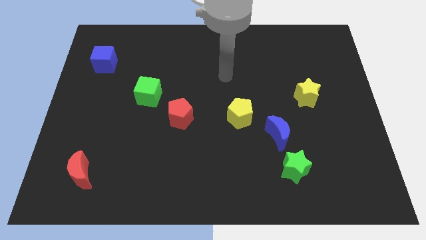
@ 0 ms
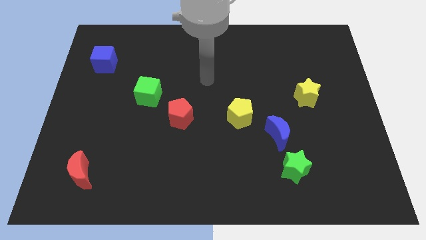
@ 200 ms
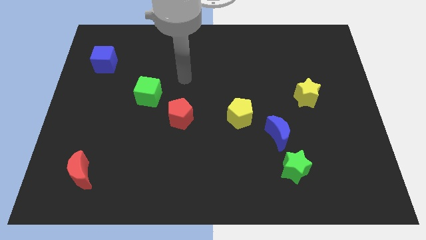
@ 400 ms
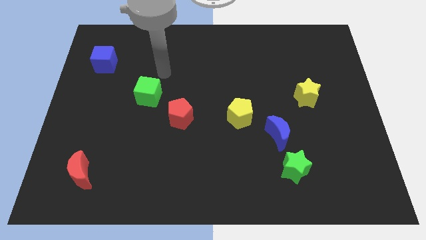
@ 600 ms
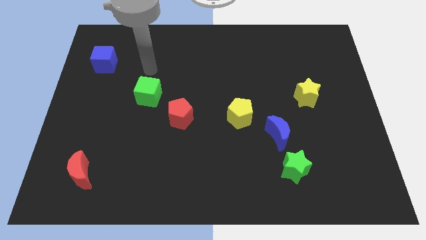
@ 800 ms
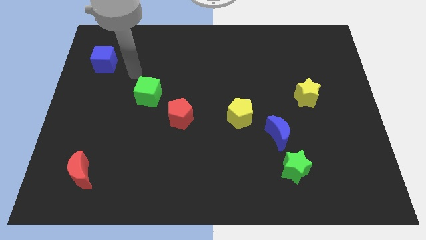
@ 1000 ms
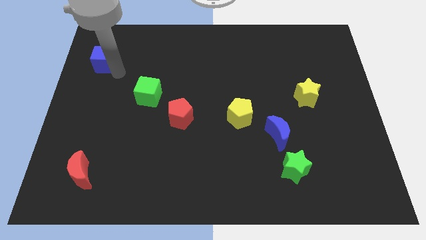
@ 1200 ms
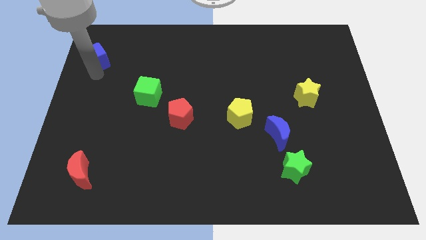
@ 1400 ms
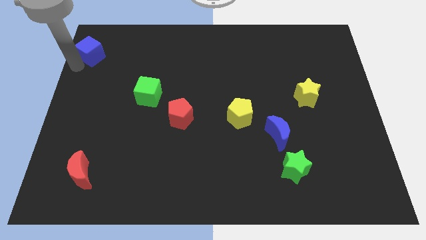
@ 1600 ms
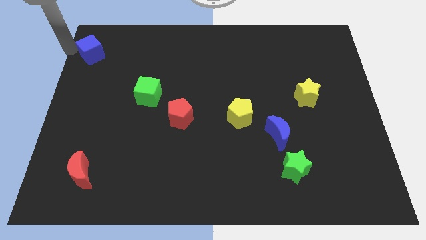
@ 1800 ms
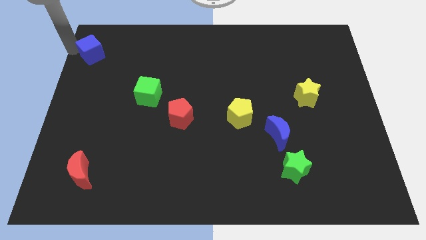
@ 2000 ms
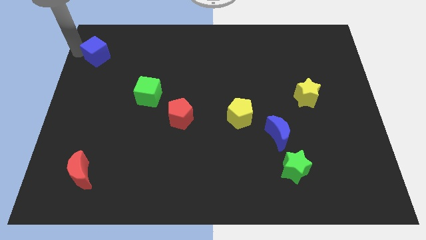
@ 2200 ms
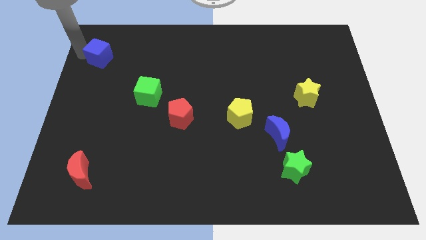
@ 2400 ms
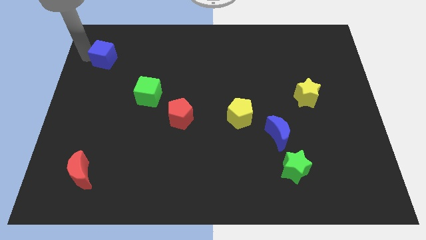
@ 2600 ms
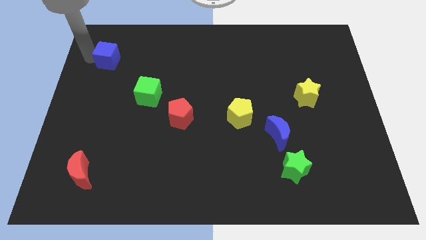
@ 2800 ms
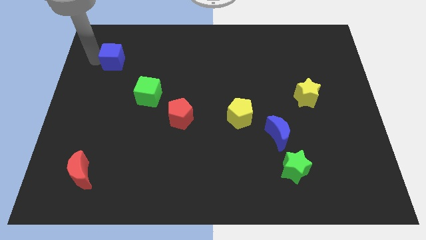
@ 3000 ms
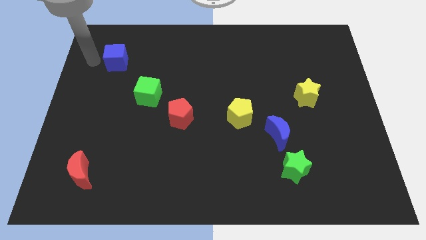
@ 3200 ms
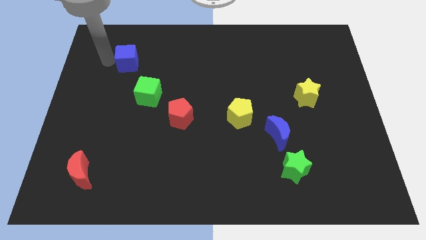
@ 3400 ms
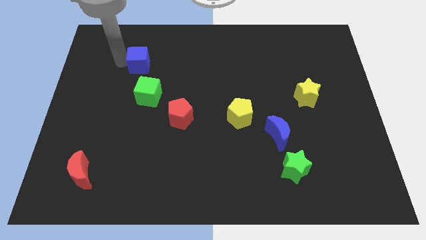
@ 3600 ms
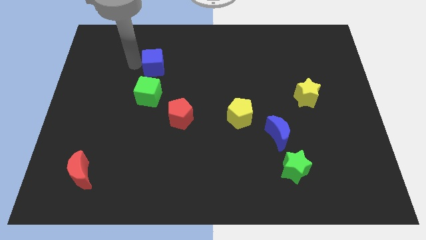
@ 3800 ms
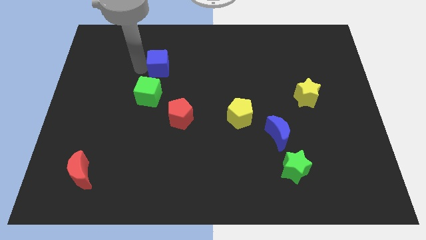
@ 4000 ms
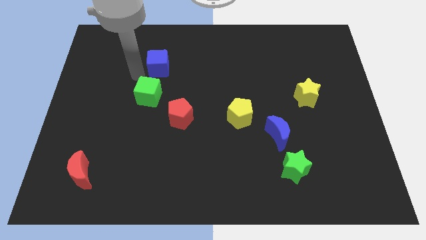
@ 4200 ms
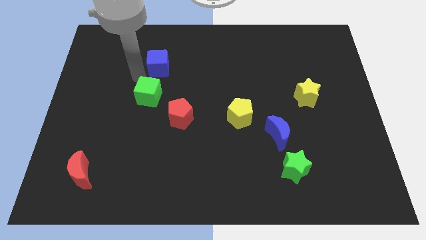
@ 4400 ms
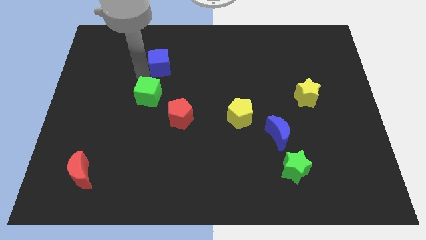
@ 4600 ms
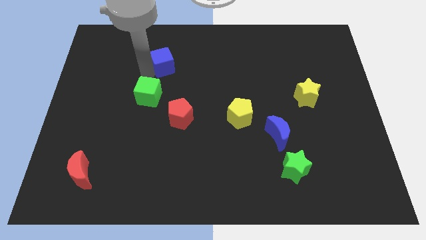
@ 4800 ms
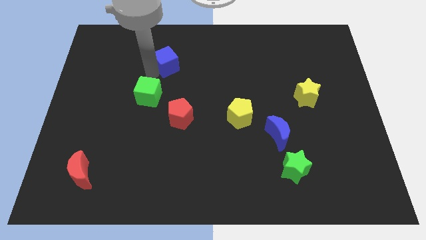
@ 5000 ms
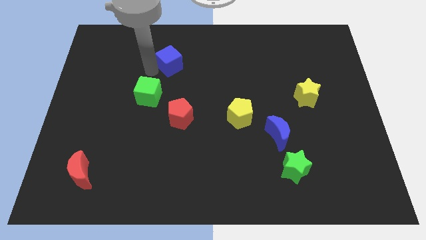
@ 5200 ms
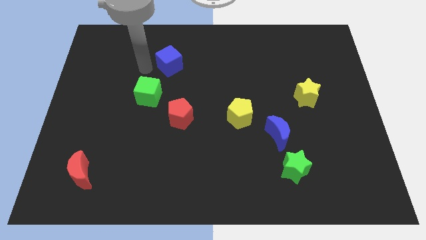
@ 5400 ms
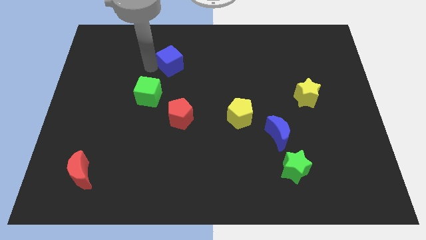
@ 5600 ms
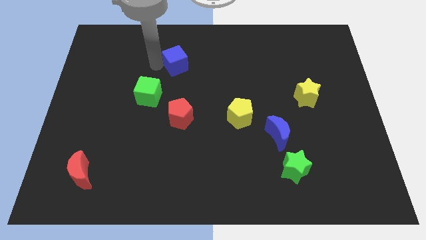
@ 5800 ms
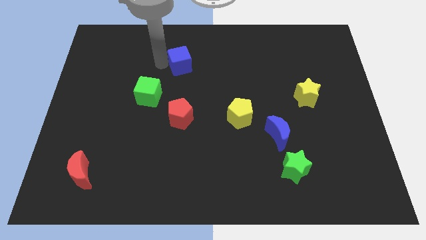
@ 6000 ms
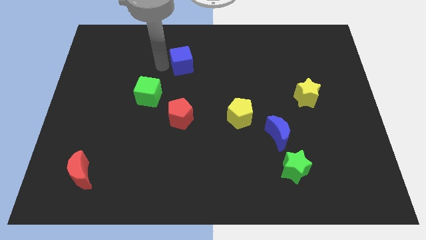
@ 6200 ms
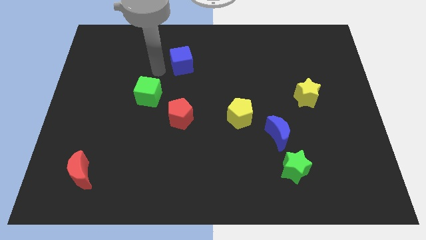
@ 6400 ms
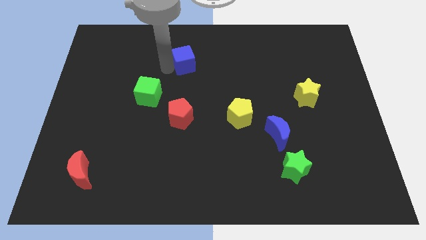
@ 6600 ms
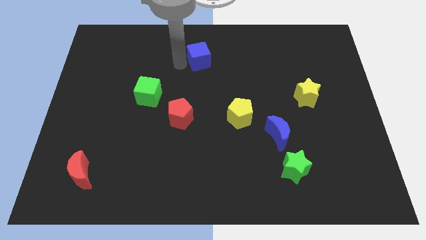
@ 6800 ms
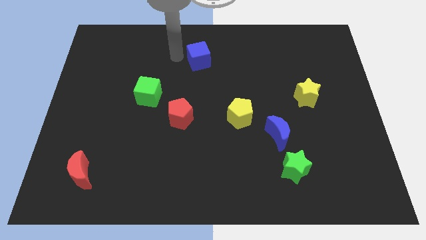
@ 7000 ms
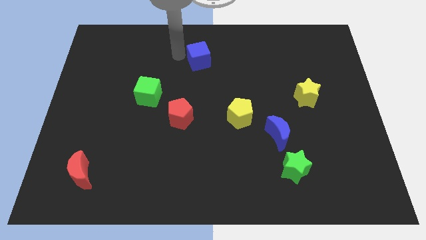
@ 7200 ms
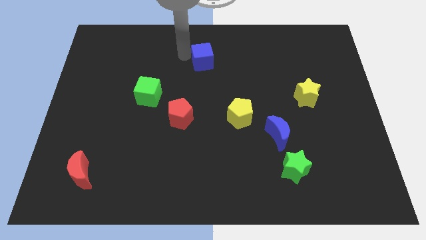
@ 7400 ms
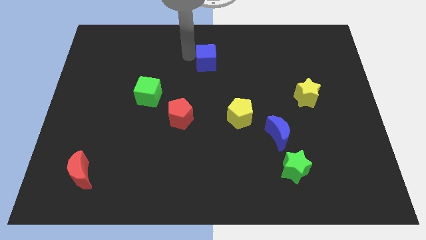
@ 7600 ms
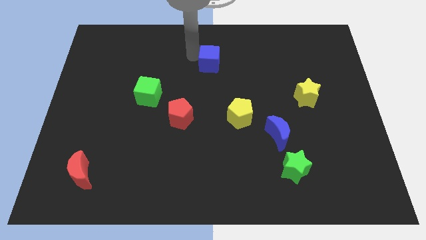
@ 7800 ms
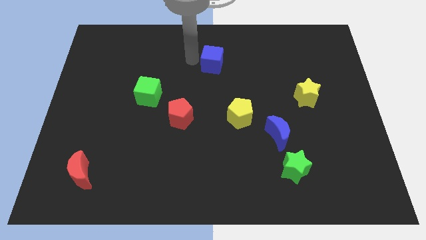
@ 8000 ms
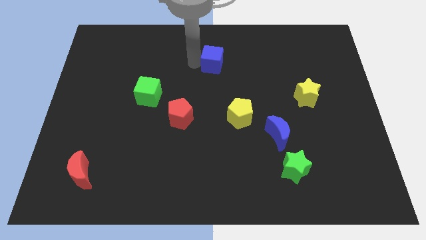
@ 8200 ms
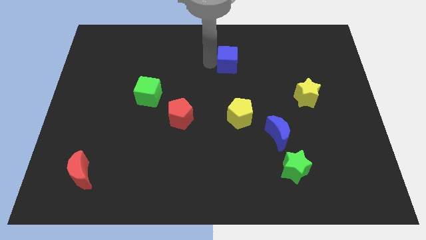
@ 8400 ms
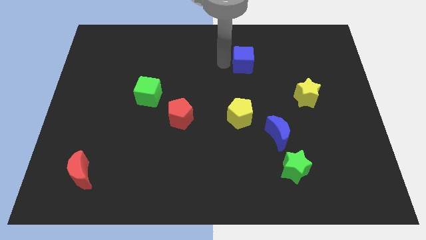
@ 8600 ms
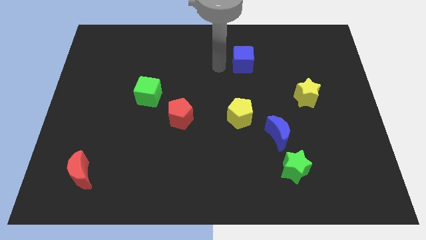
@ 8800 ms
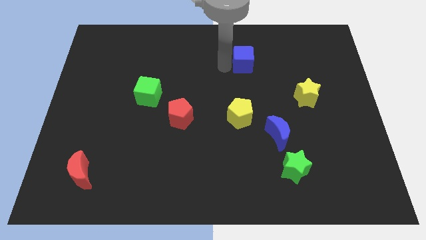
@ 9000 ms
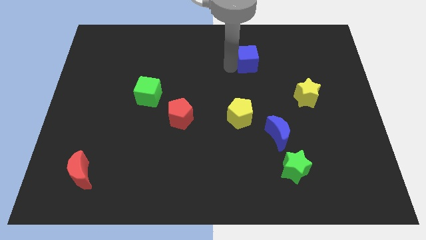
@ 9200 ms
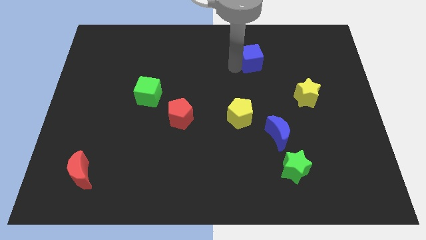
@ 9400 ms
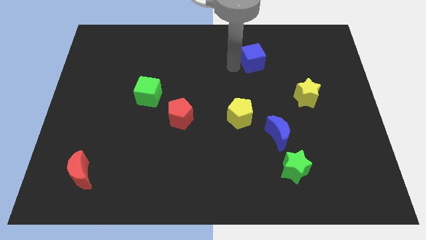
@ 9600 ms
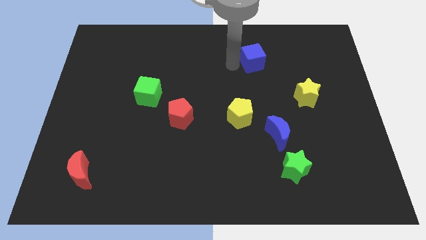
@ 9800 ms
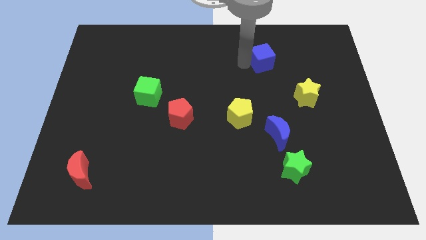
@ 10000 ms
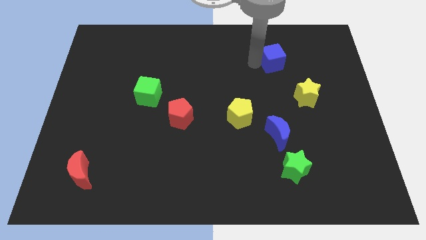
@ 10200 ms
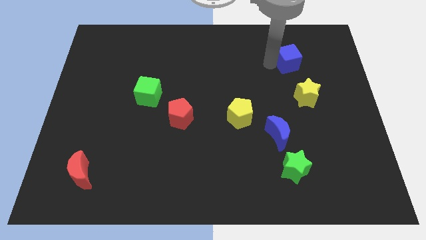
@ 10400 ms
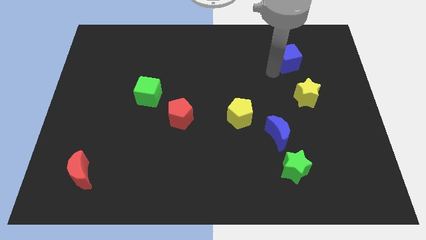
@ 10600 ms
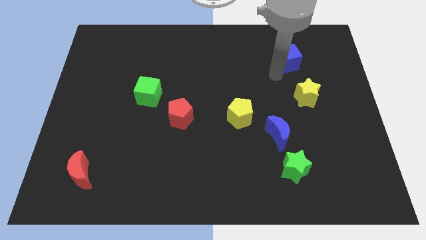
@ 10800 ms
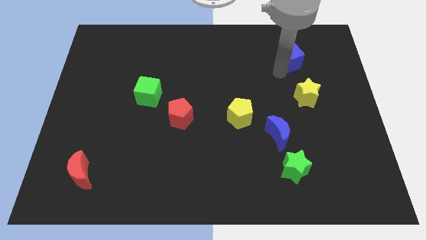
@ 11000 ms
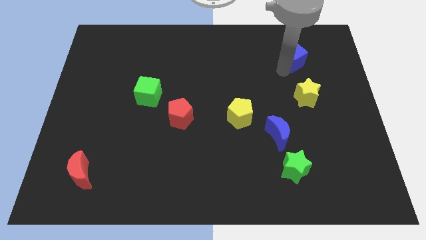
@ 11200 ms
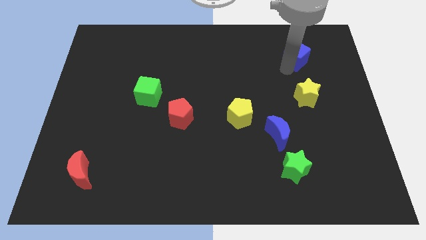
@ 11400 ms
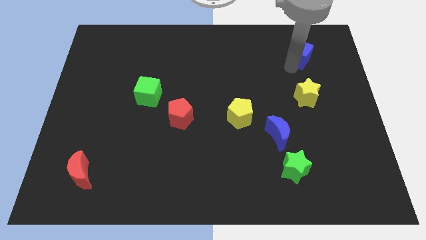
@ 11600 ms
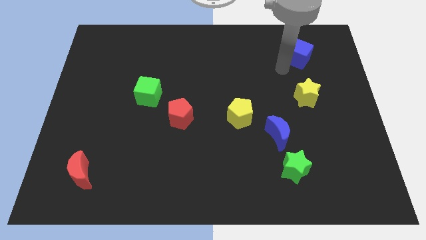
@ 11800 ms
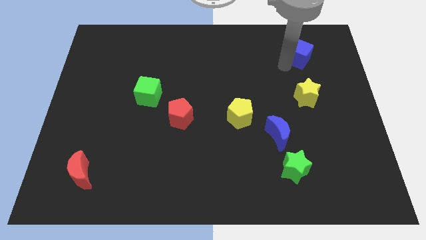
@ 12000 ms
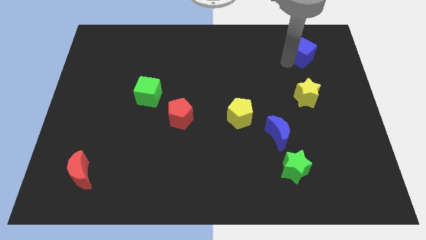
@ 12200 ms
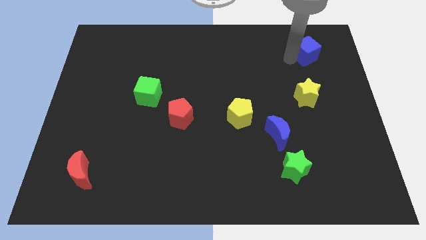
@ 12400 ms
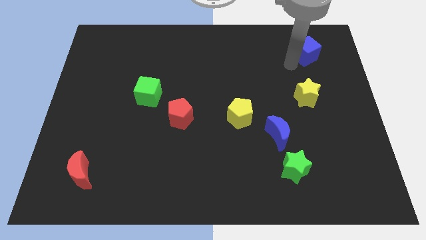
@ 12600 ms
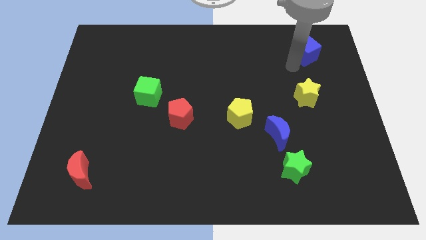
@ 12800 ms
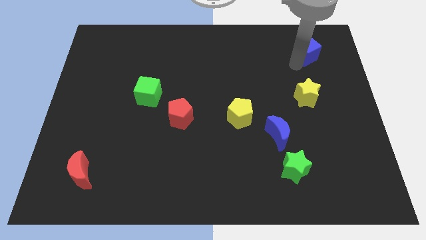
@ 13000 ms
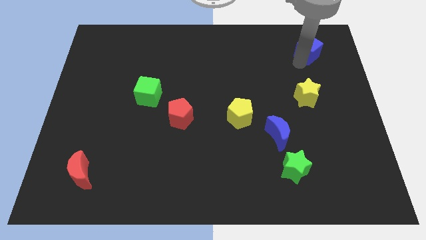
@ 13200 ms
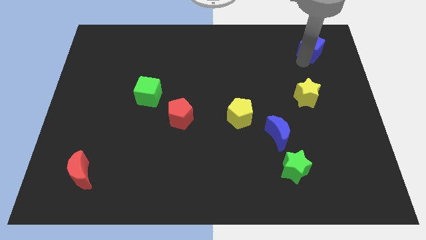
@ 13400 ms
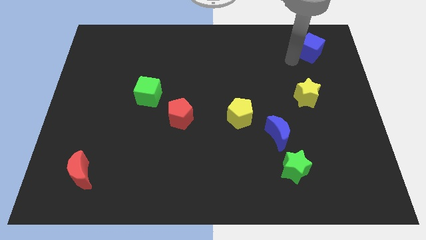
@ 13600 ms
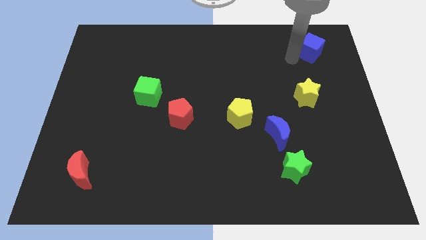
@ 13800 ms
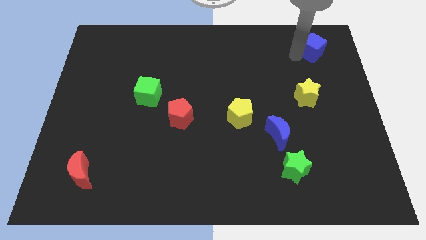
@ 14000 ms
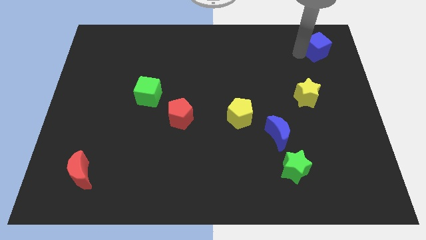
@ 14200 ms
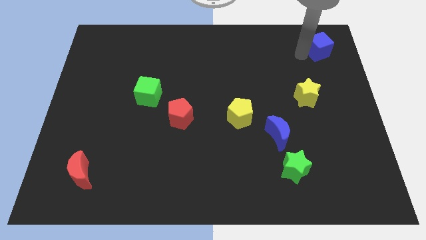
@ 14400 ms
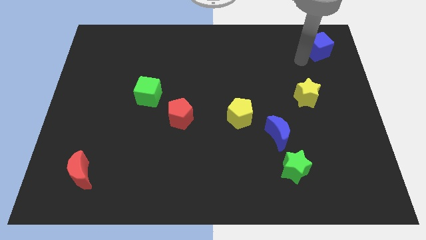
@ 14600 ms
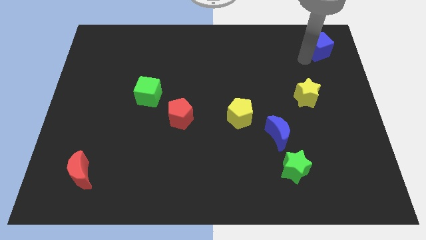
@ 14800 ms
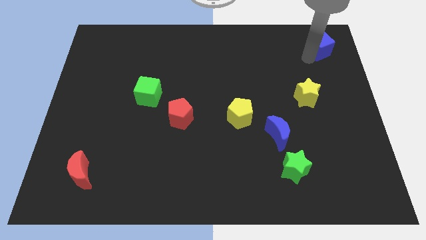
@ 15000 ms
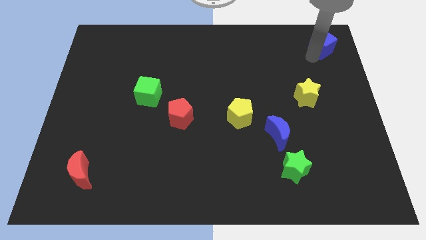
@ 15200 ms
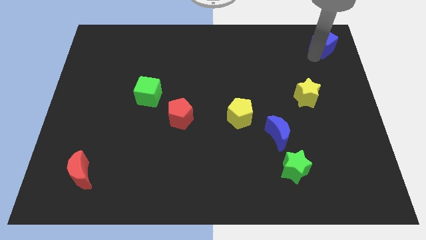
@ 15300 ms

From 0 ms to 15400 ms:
put the blue cube to the top right corner
